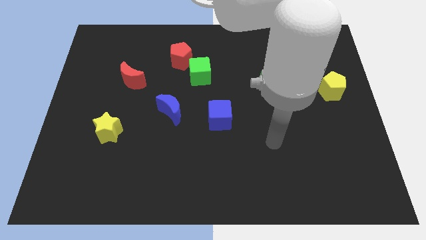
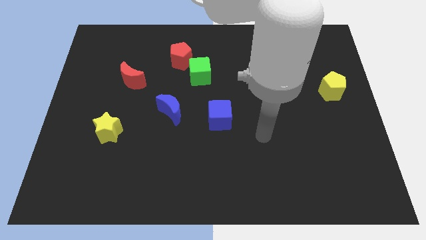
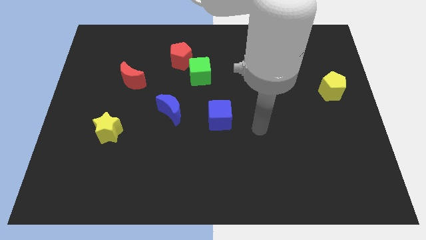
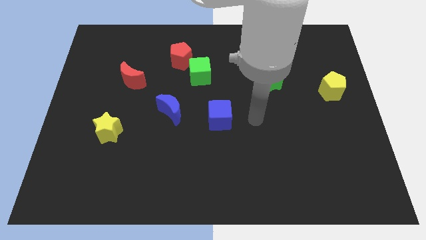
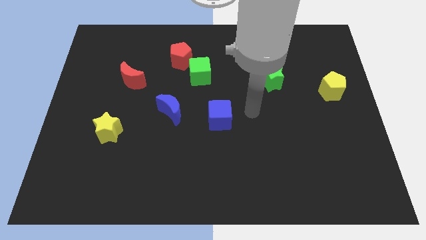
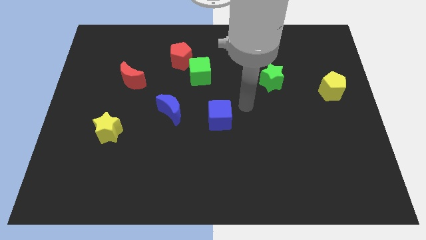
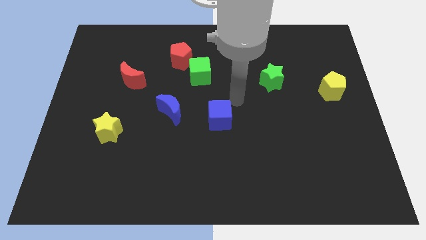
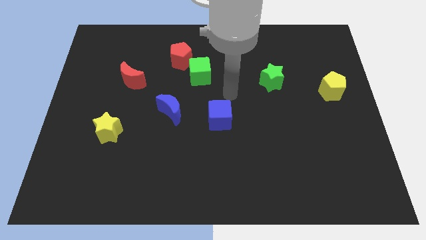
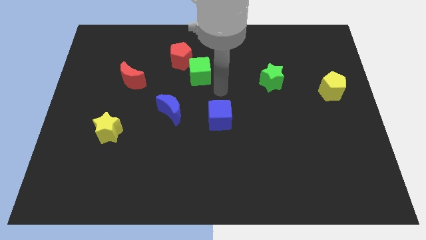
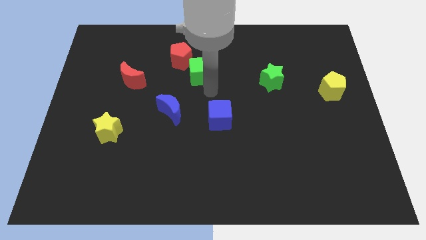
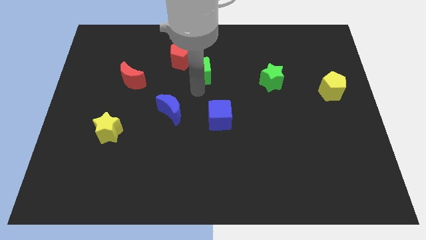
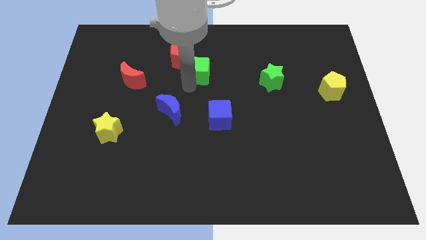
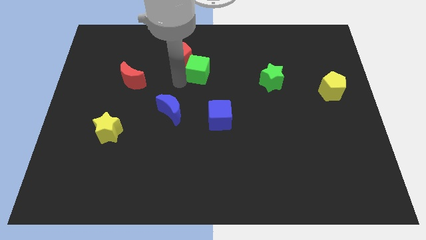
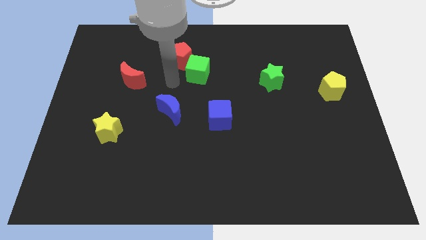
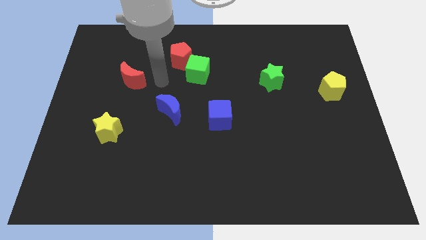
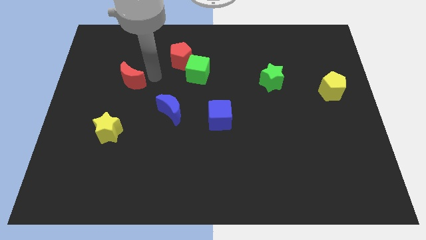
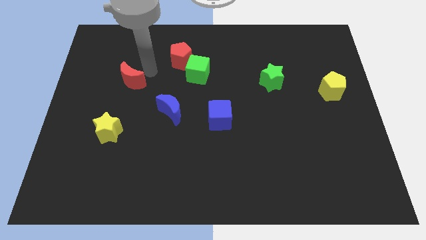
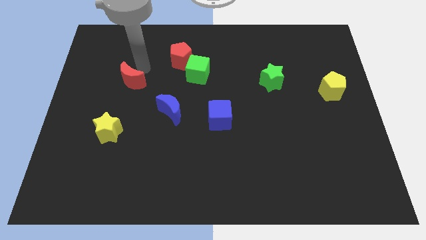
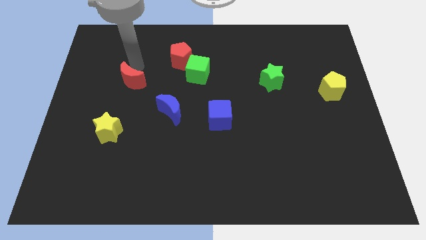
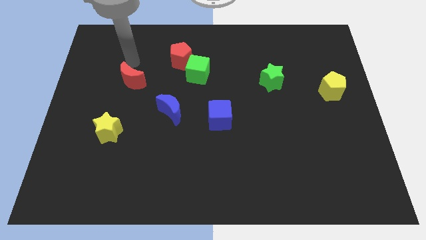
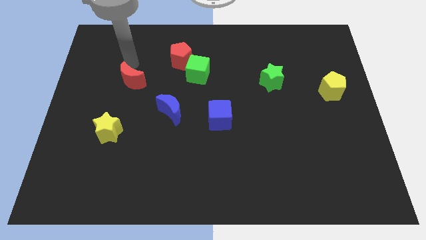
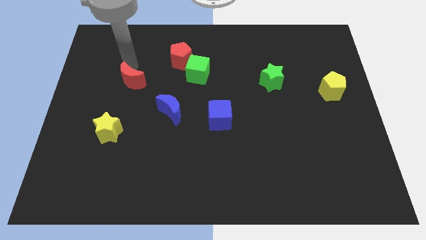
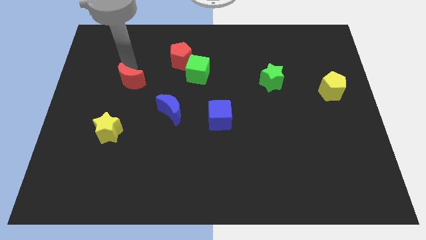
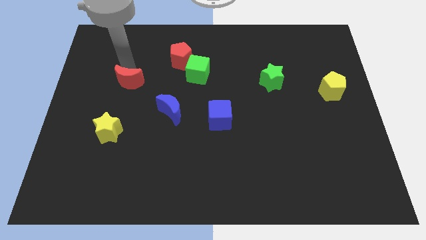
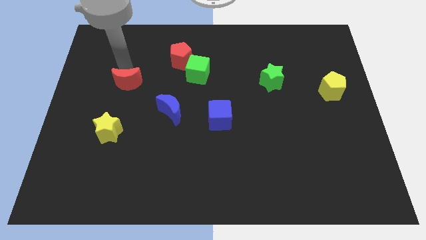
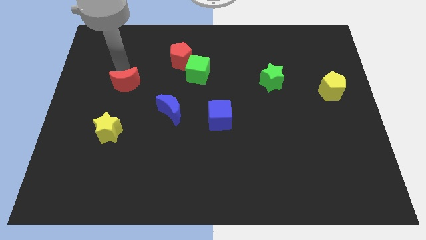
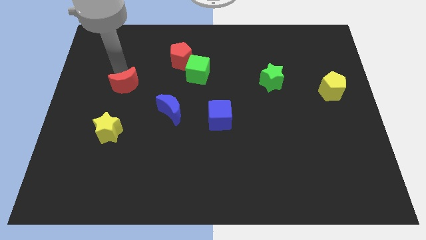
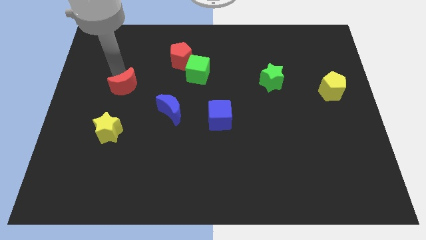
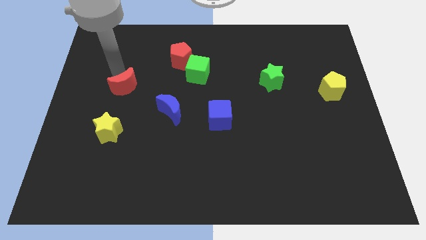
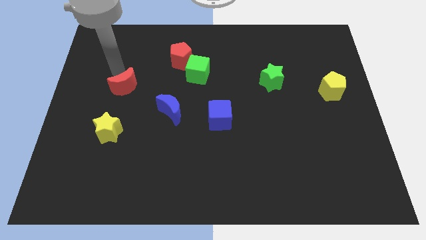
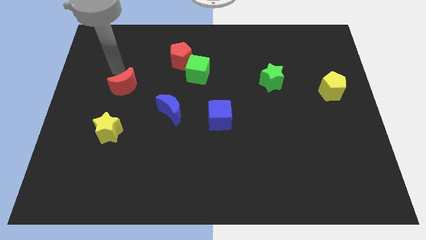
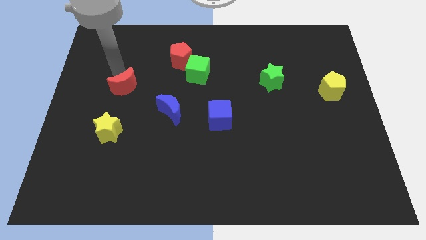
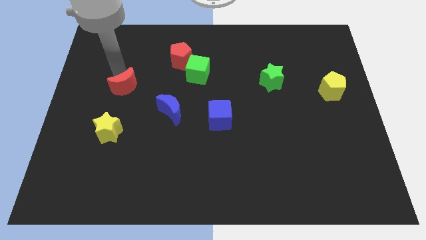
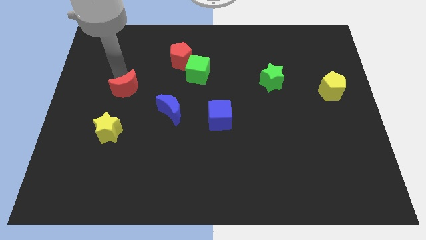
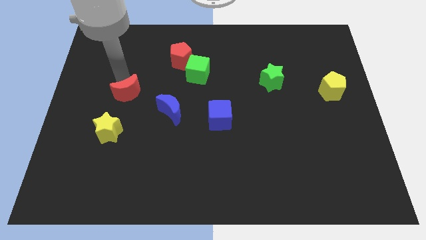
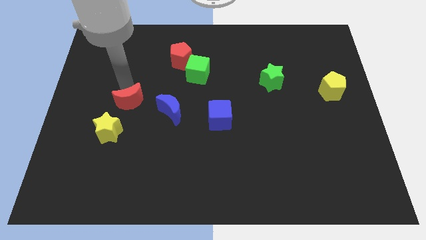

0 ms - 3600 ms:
slide the red moon a little bit downwards

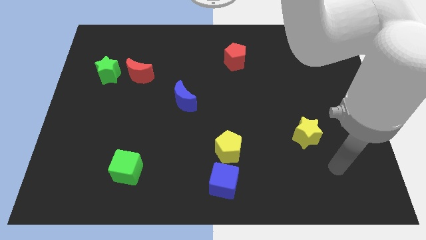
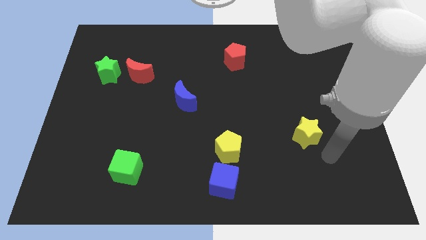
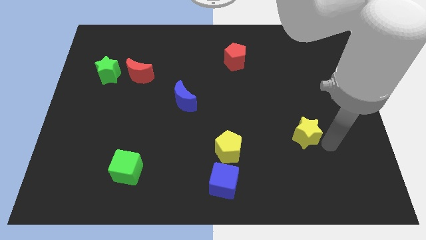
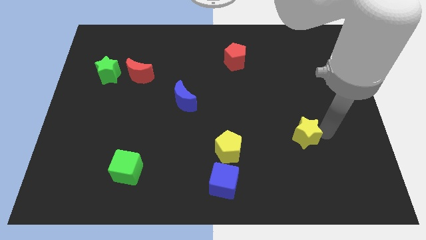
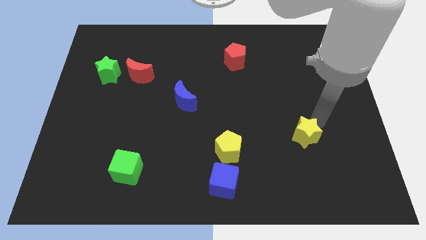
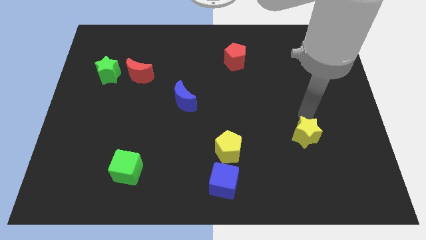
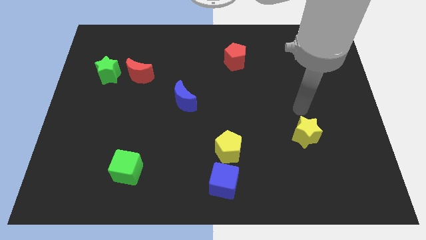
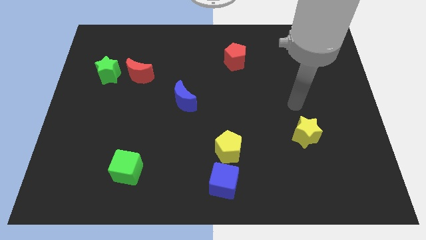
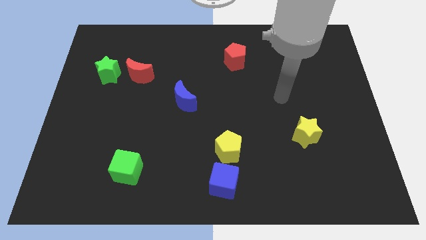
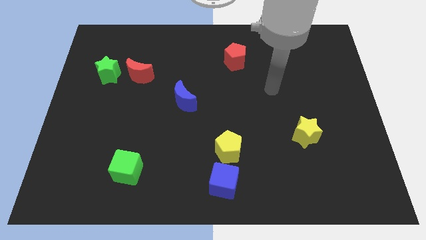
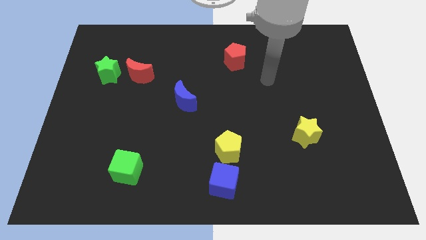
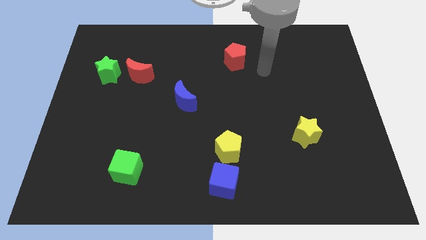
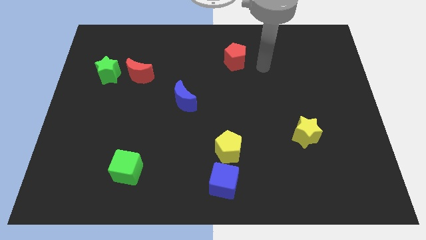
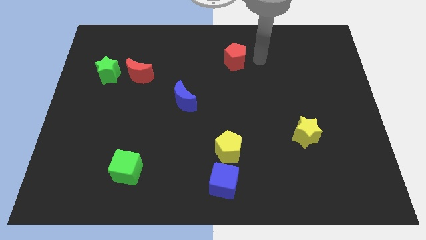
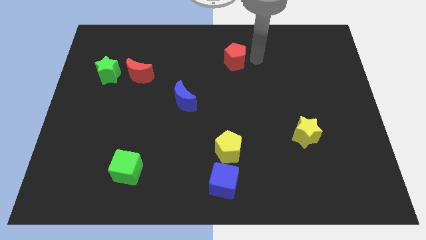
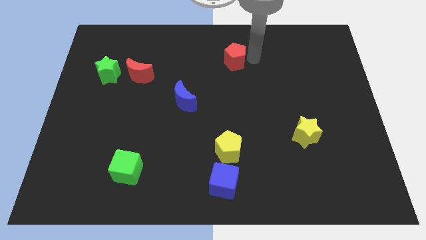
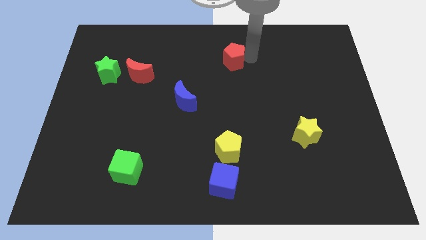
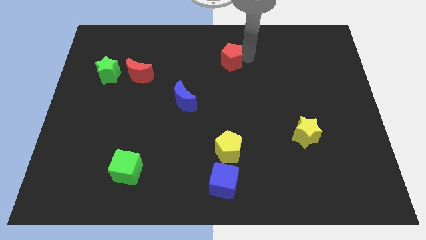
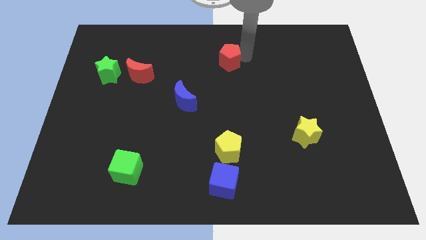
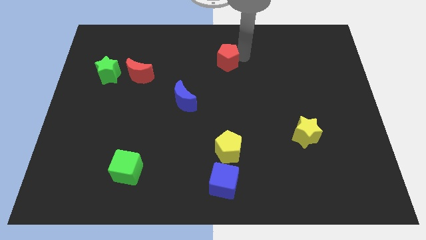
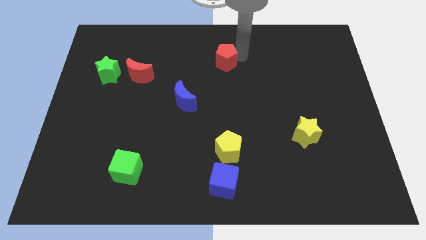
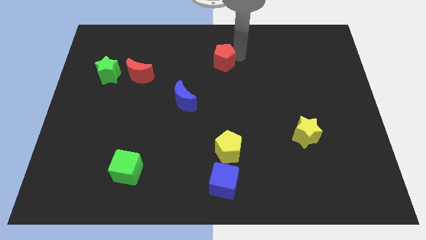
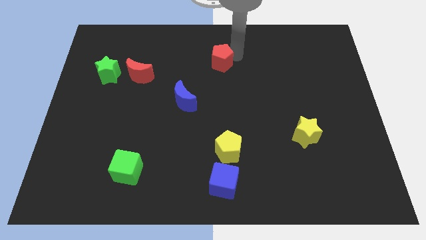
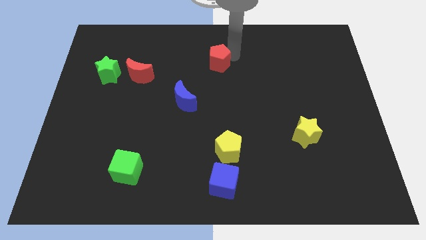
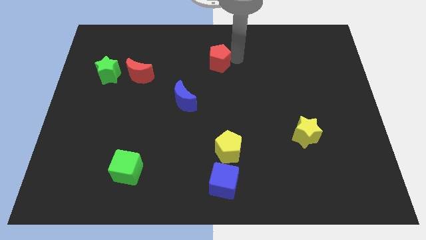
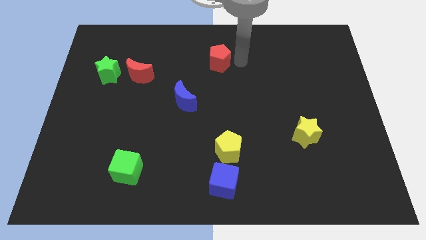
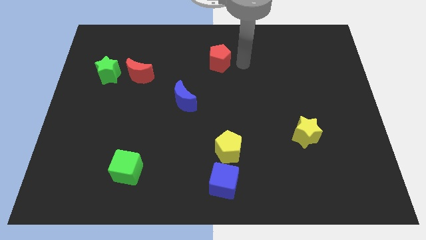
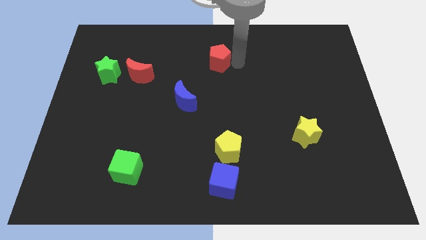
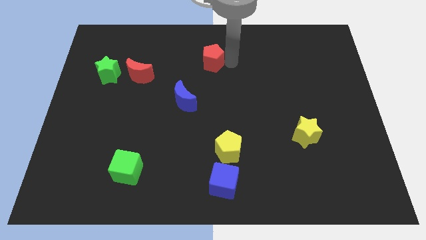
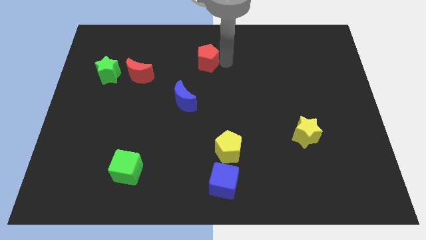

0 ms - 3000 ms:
slide the red pentagon a bit to the left

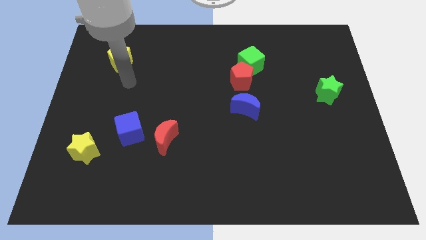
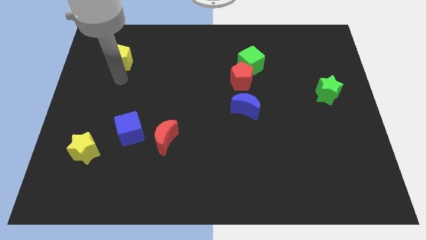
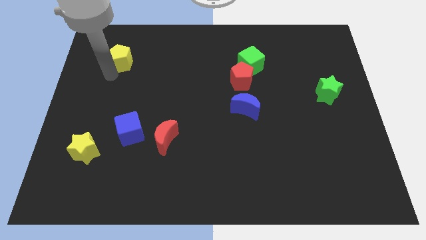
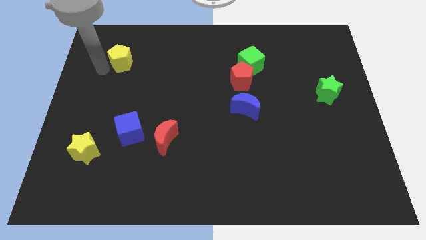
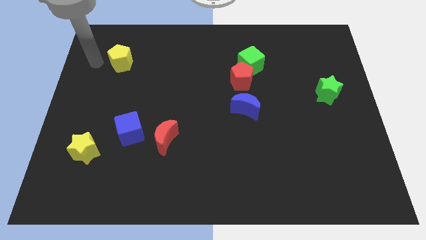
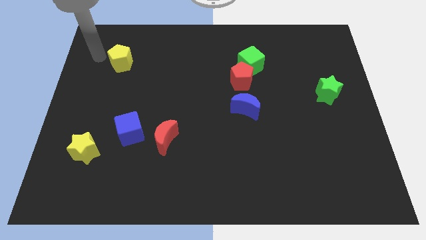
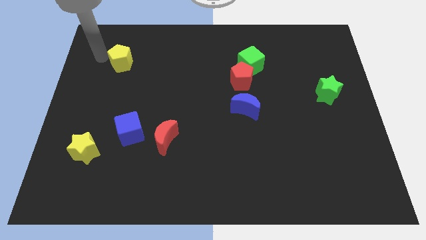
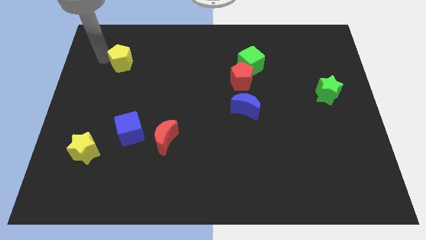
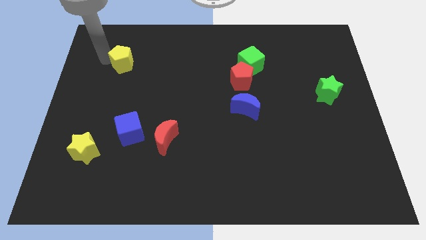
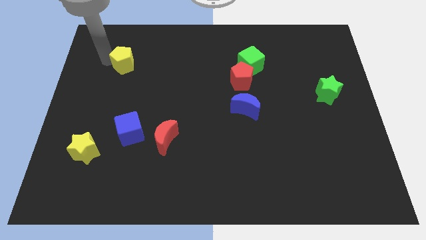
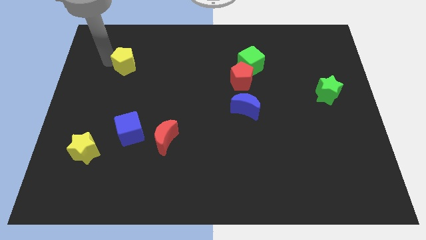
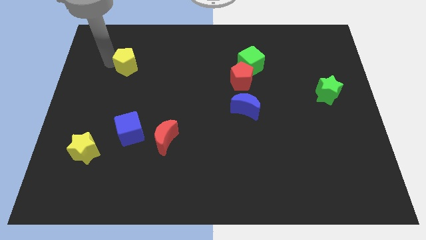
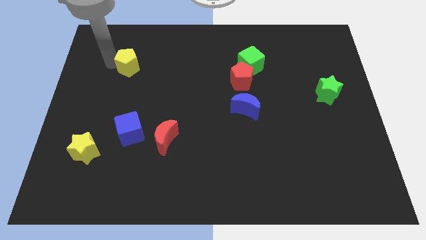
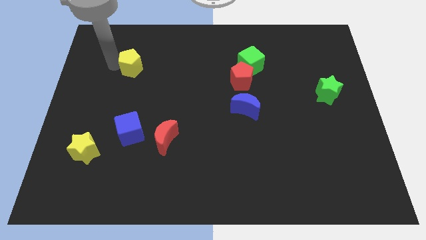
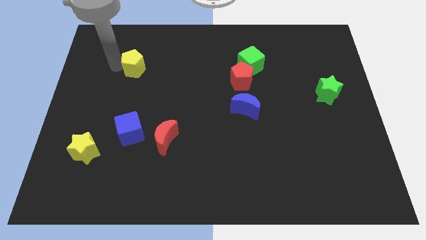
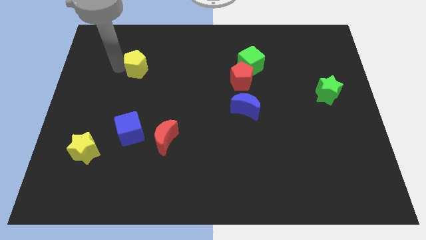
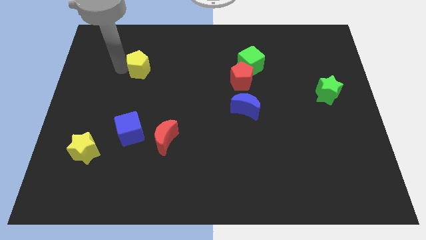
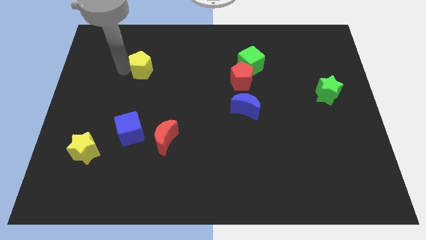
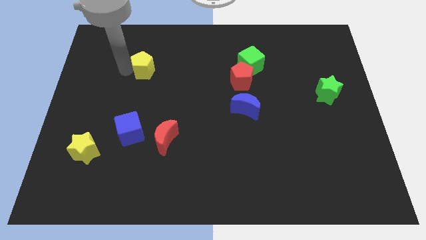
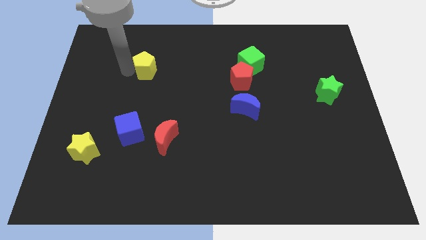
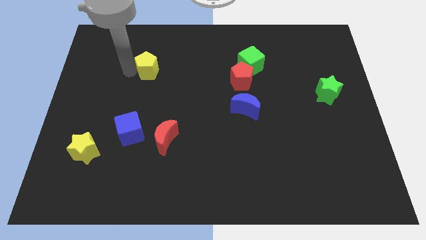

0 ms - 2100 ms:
move the yellow pentagon somewhat to the right
